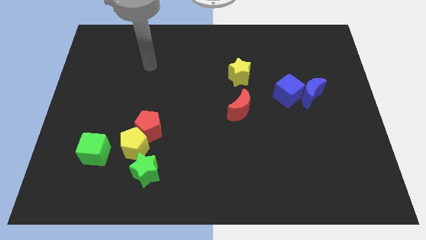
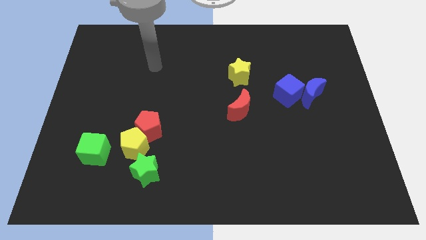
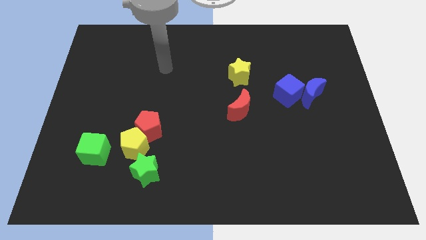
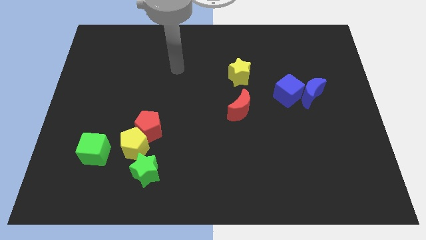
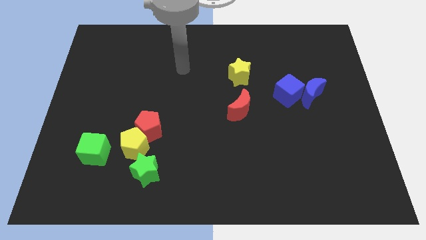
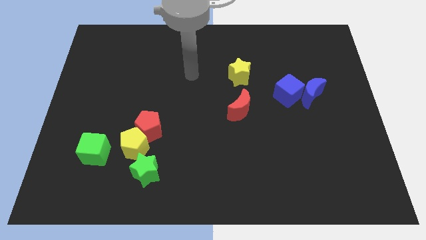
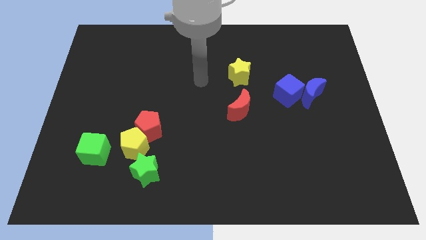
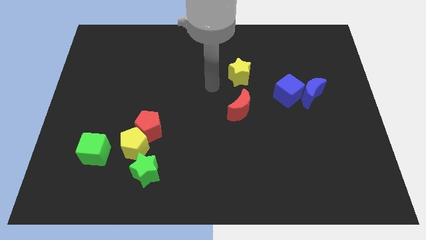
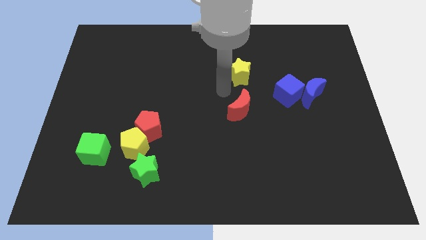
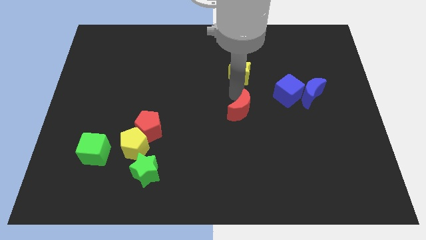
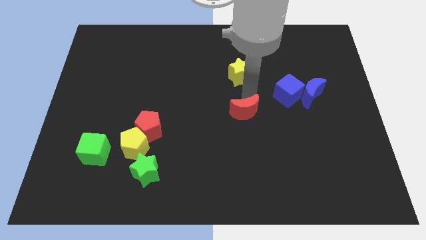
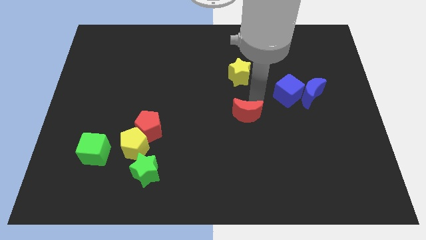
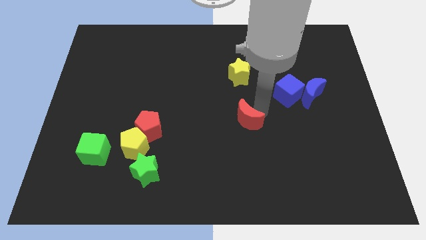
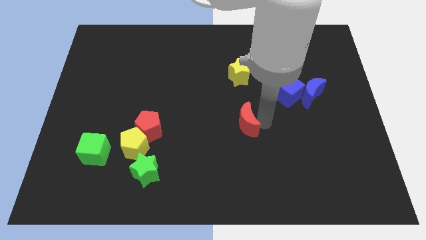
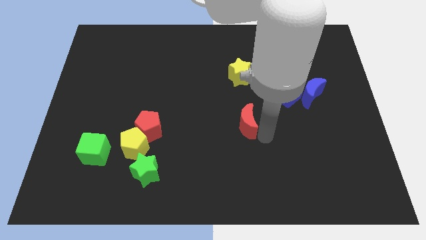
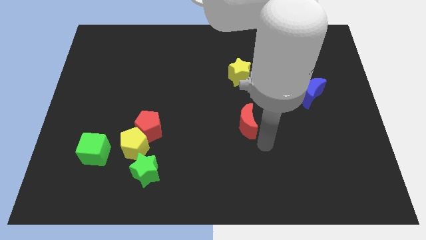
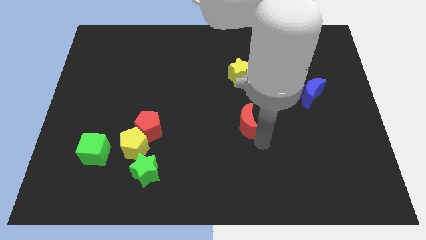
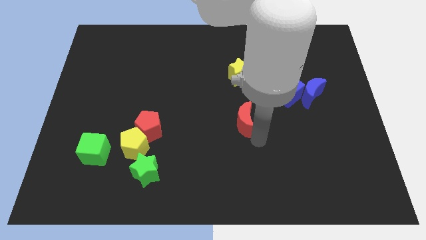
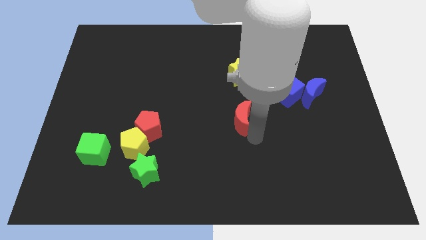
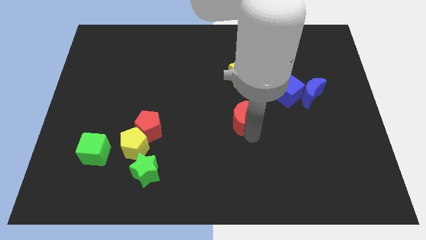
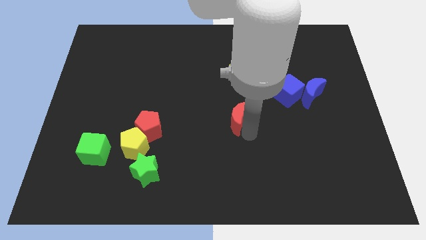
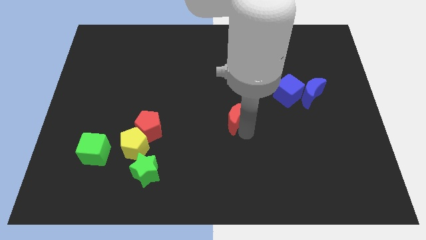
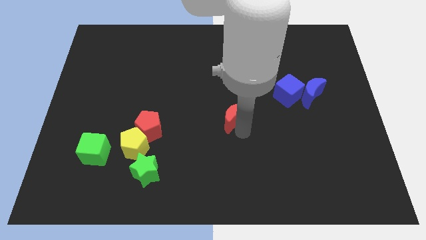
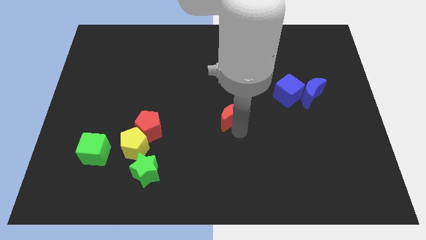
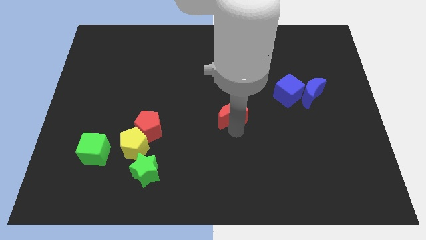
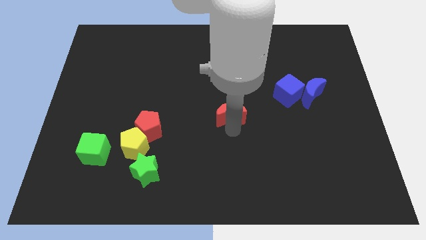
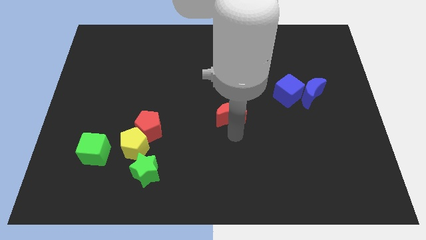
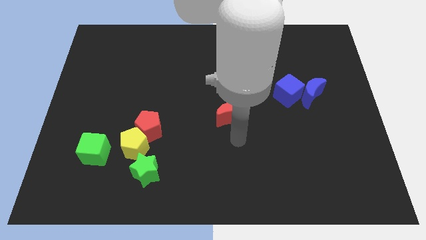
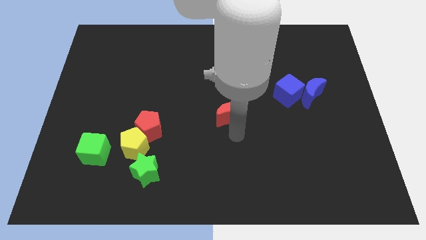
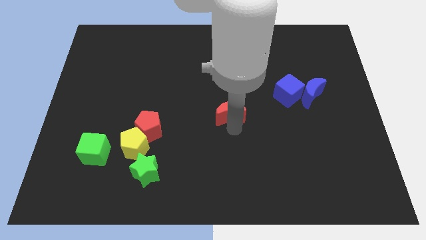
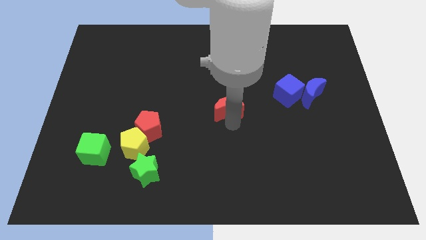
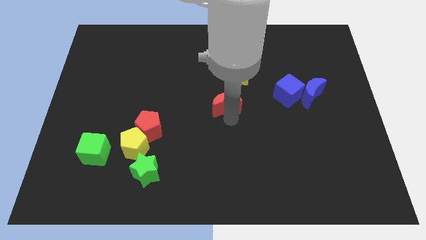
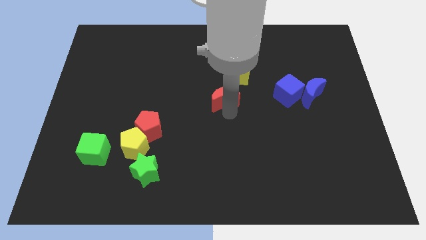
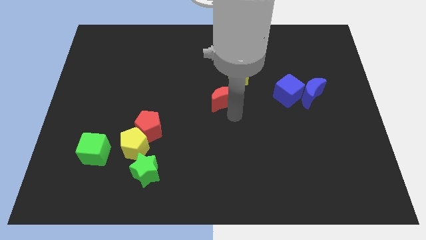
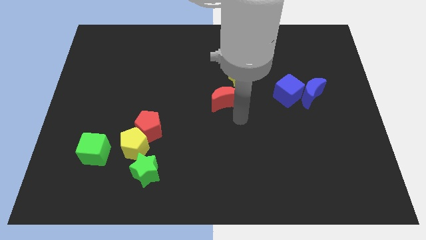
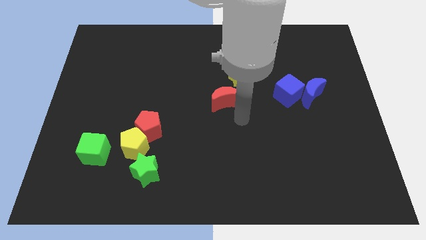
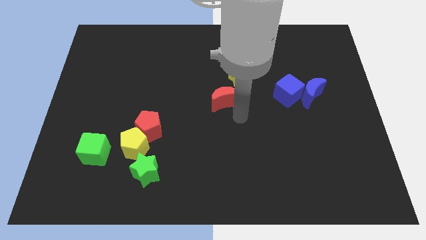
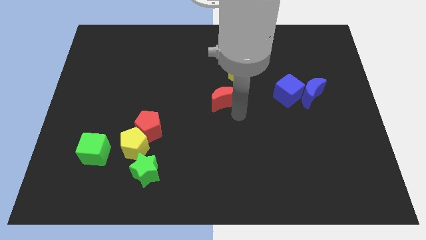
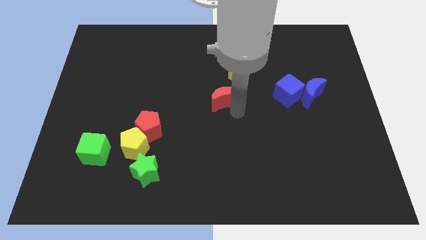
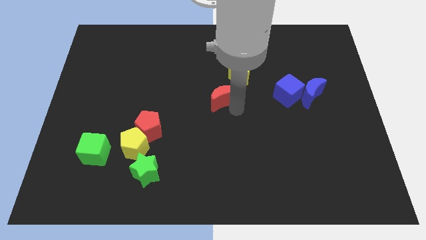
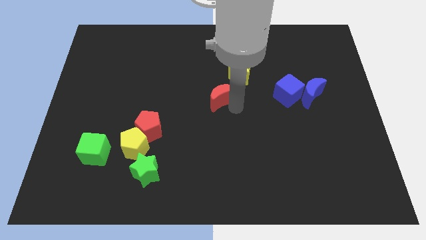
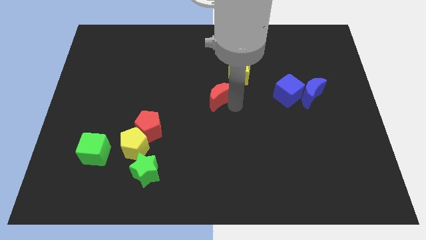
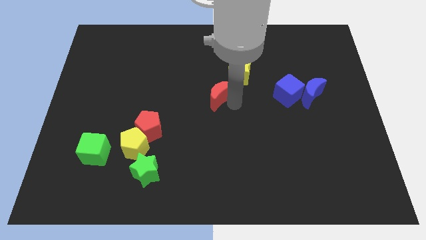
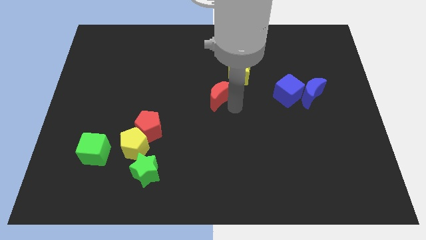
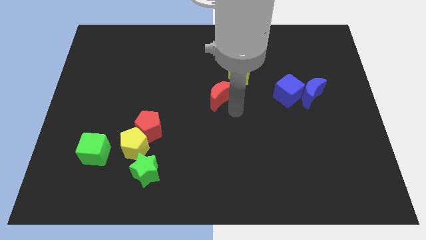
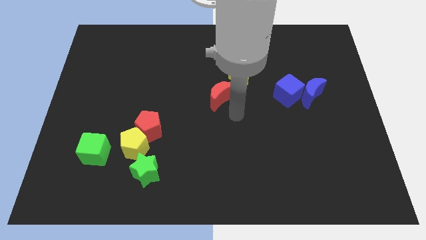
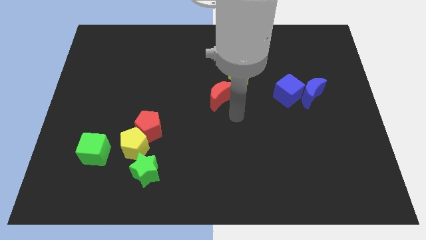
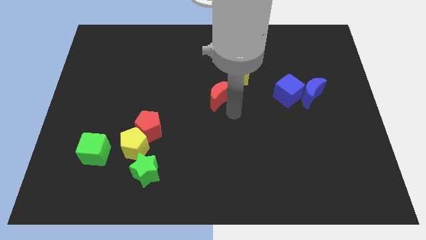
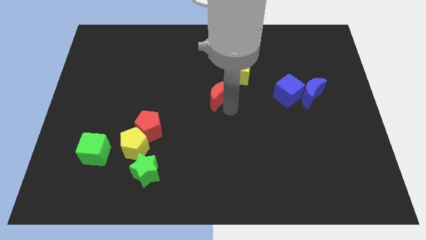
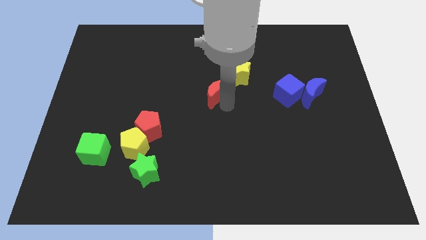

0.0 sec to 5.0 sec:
slide the red moon up and then to the left somewhat

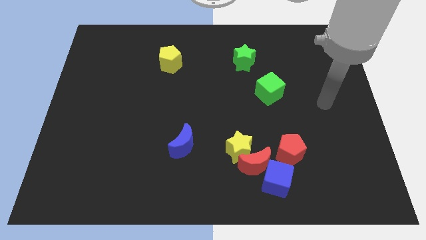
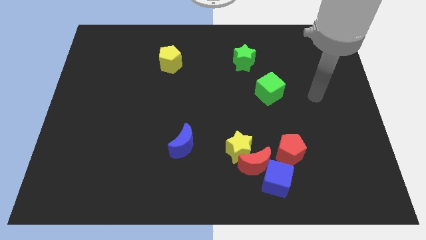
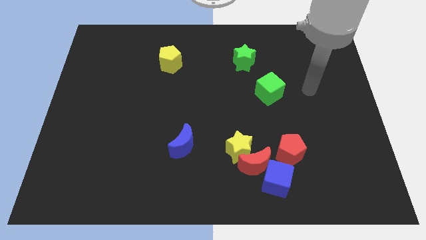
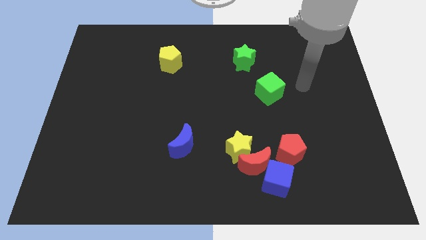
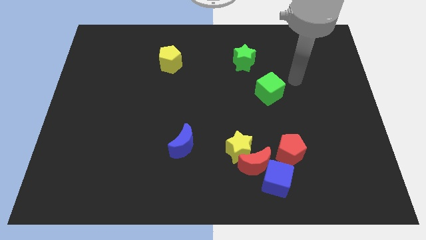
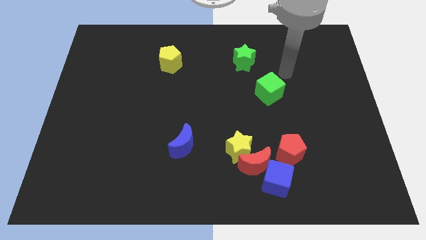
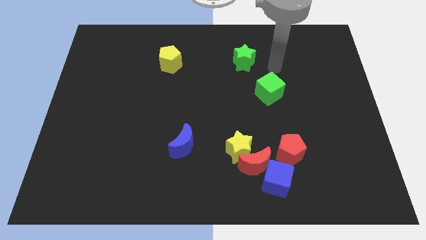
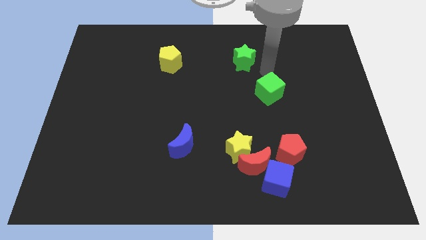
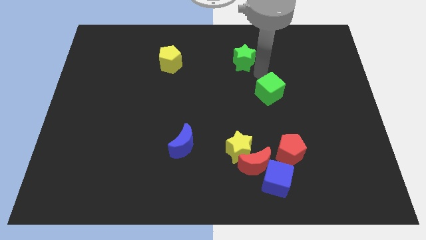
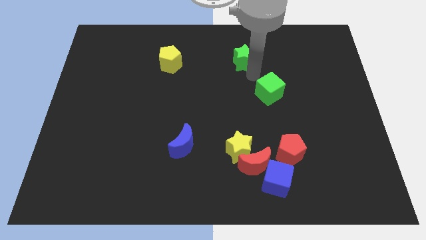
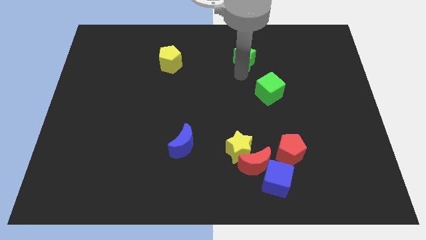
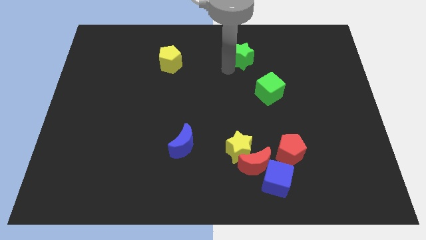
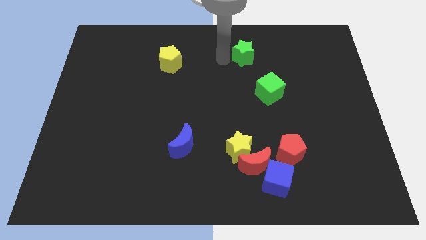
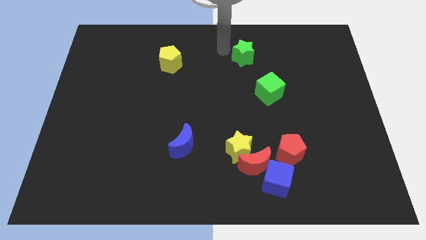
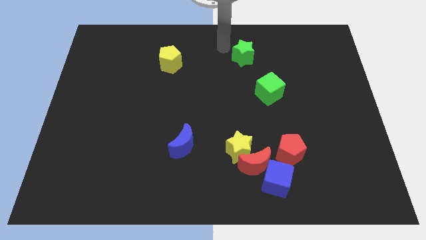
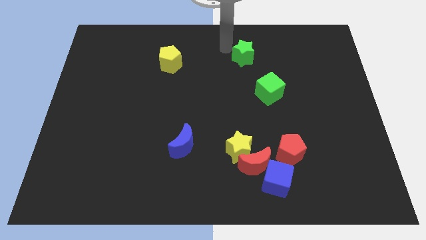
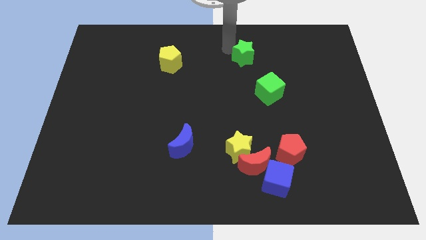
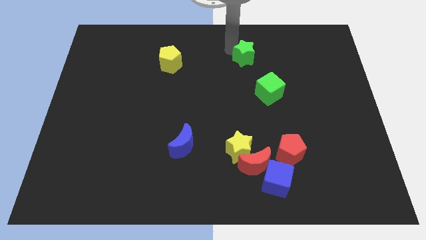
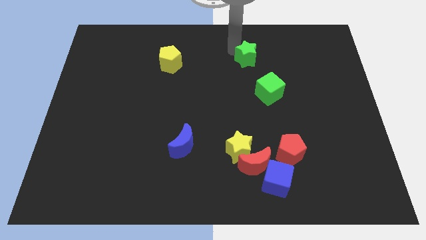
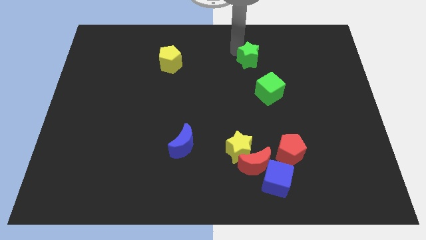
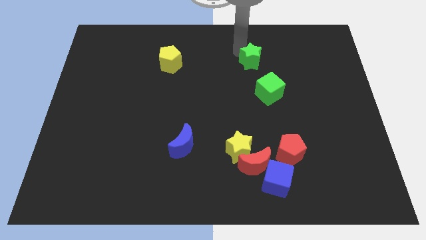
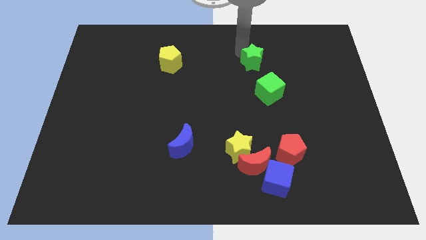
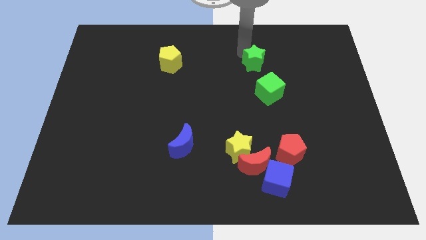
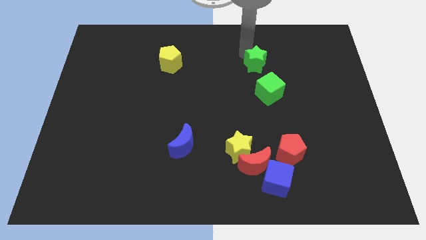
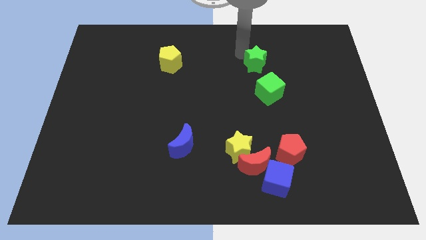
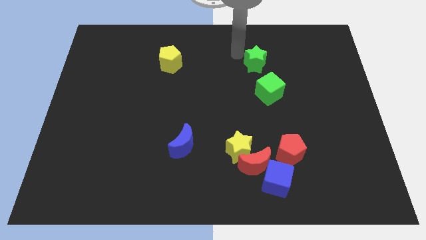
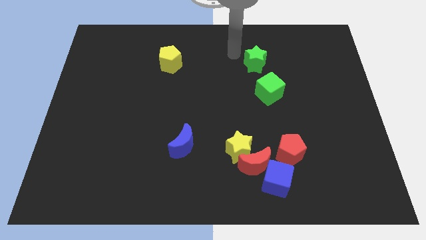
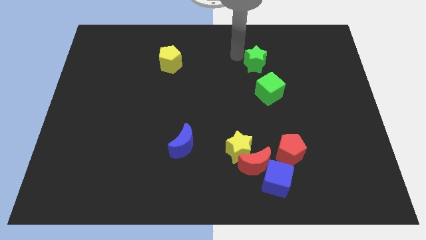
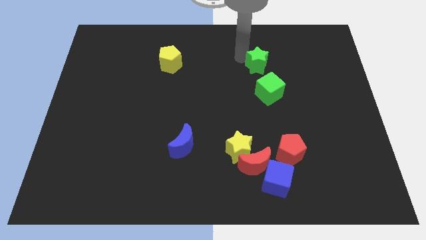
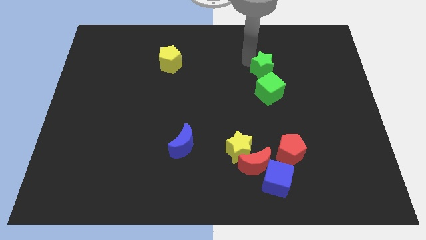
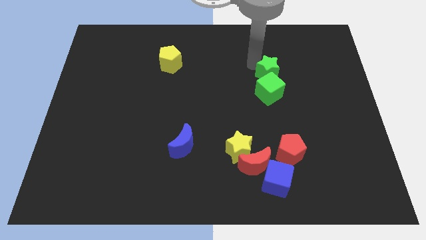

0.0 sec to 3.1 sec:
push the green star downwards and right diagonally a little

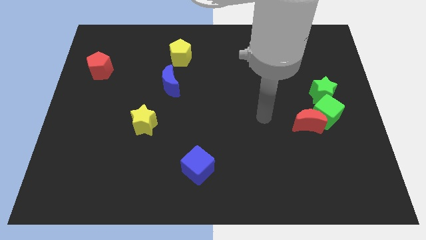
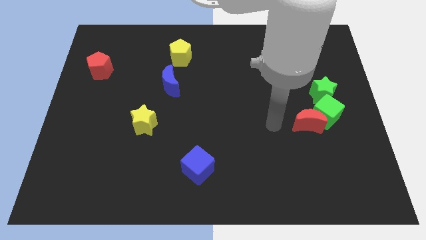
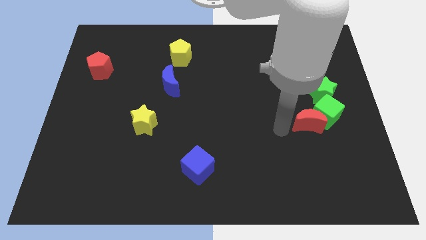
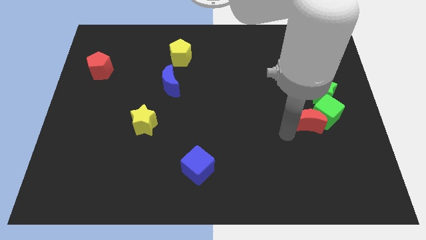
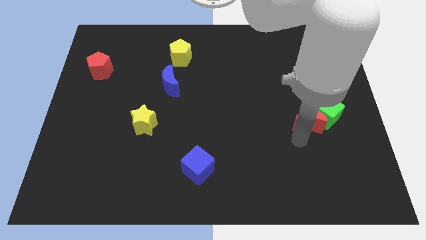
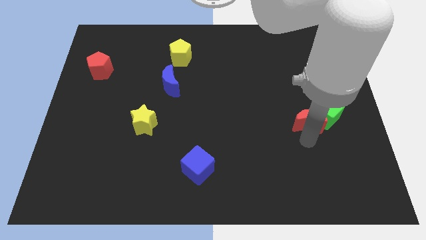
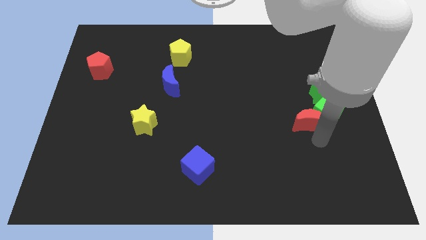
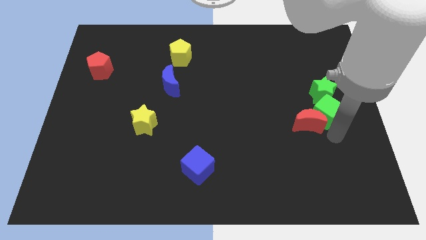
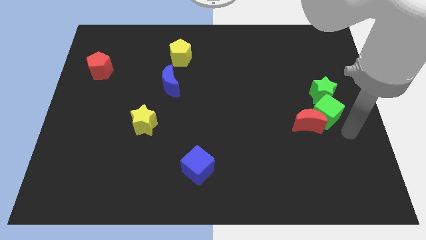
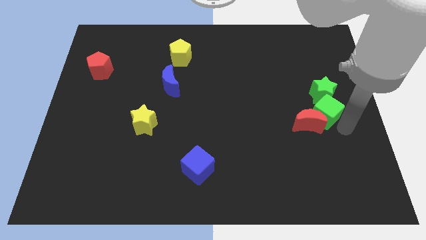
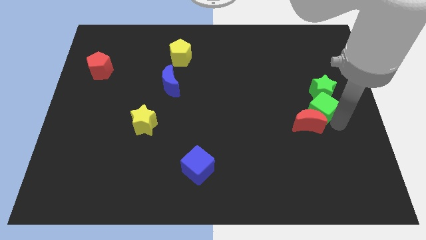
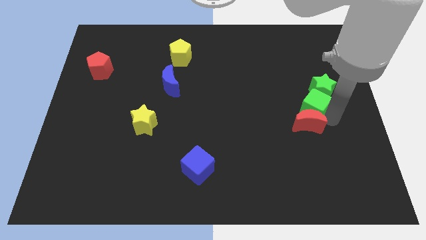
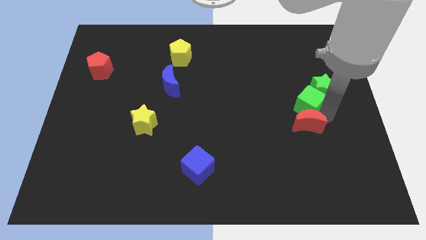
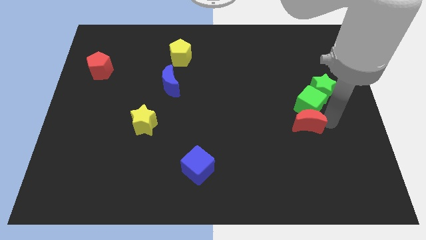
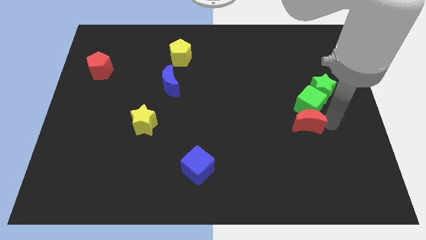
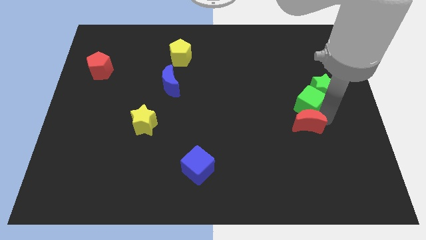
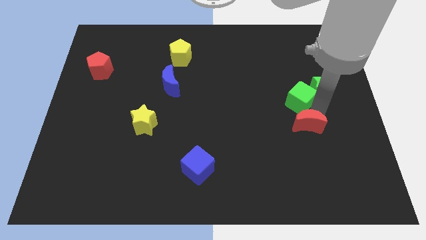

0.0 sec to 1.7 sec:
push the green cube a little bit up and left diagonally
